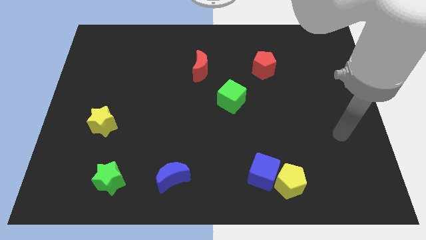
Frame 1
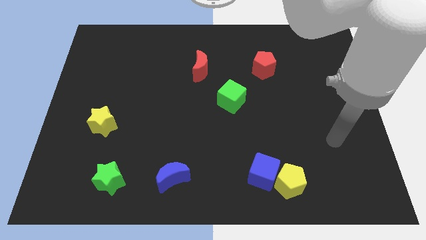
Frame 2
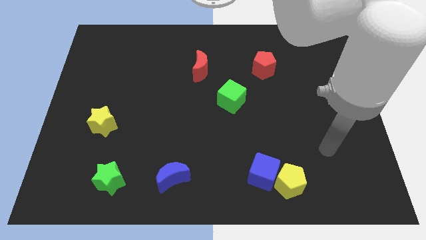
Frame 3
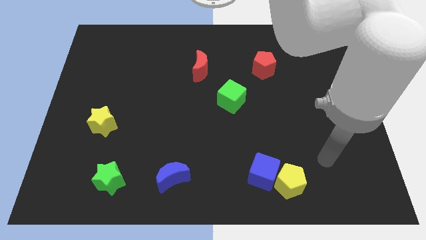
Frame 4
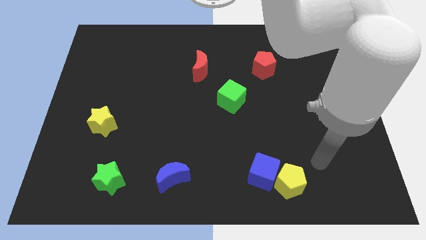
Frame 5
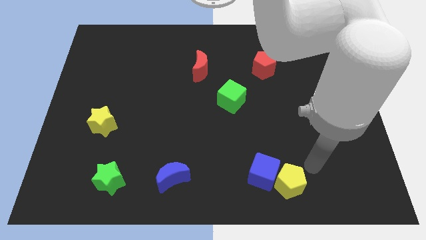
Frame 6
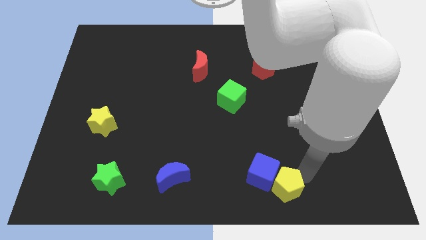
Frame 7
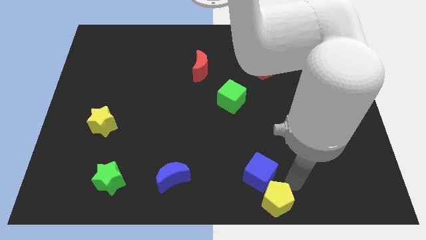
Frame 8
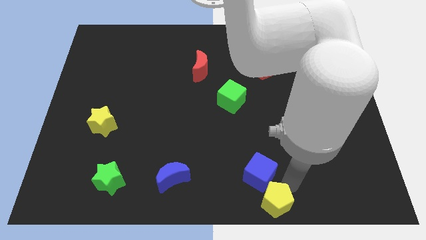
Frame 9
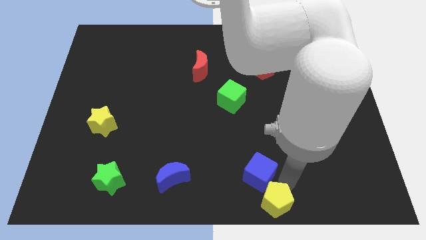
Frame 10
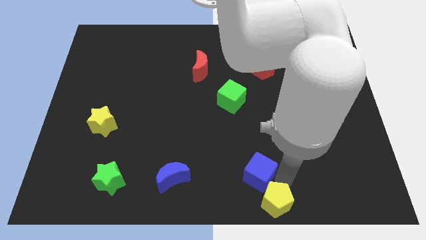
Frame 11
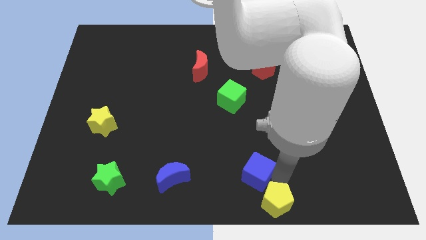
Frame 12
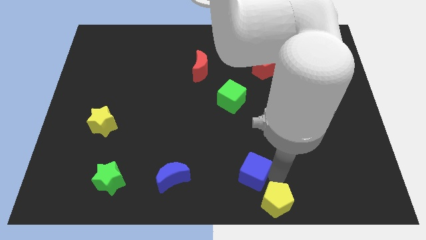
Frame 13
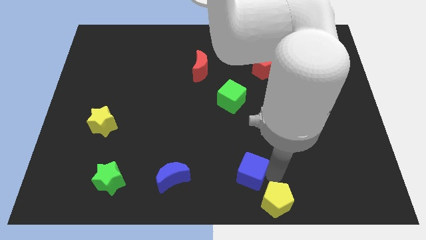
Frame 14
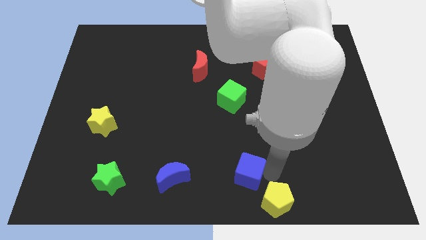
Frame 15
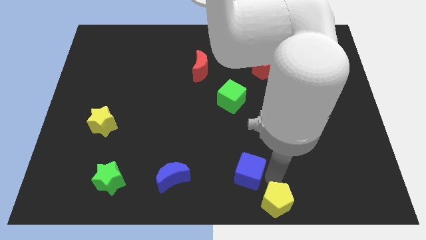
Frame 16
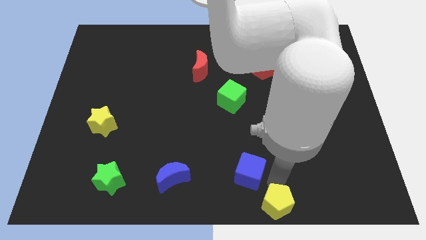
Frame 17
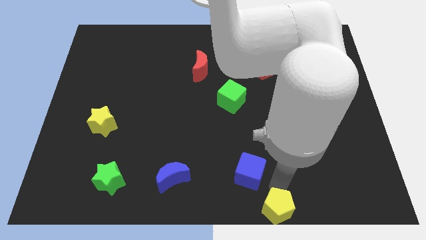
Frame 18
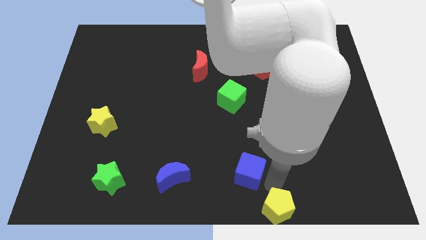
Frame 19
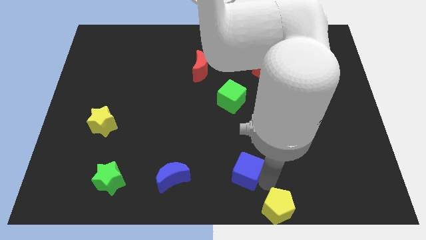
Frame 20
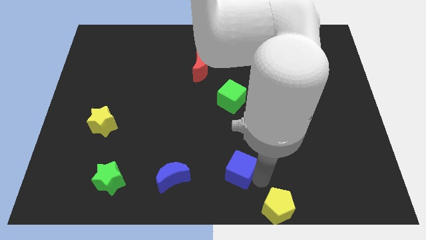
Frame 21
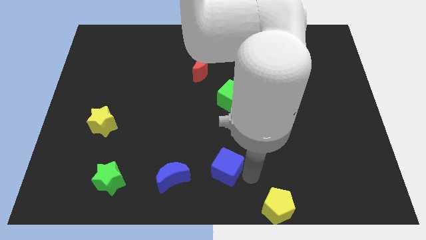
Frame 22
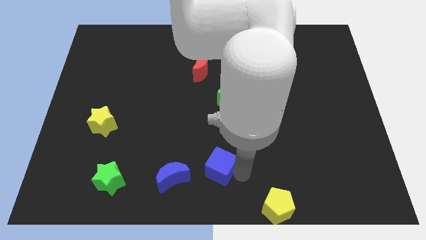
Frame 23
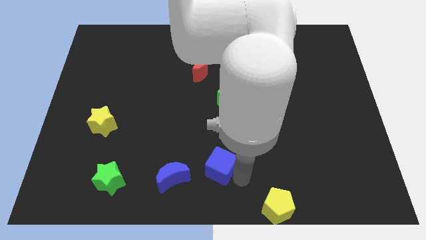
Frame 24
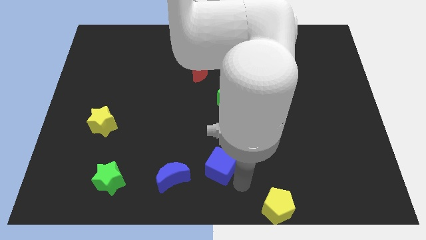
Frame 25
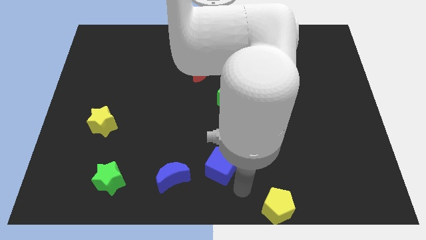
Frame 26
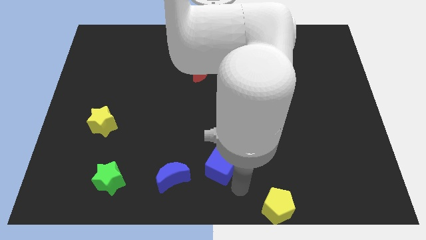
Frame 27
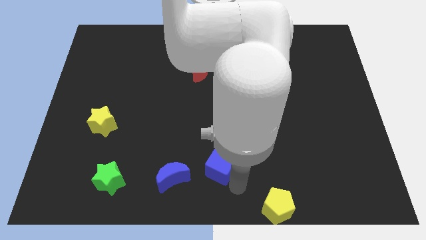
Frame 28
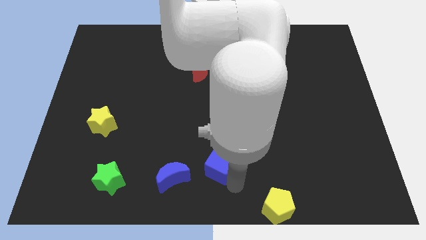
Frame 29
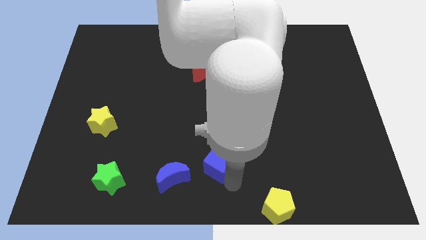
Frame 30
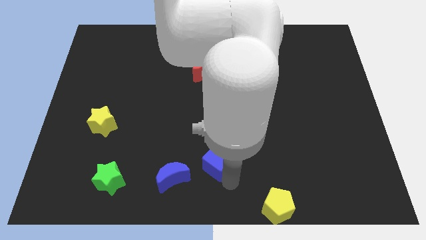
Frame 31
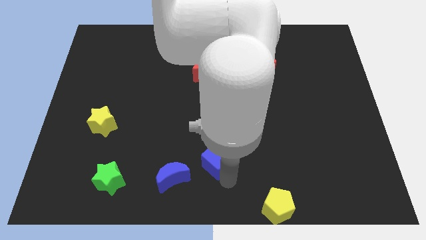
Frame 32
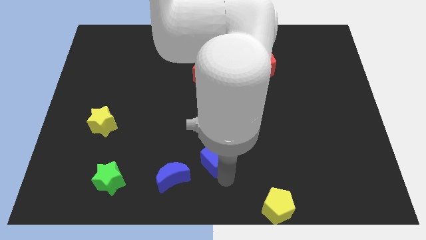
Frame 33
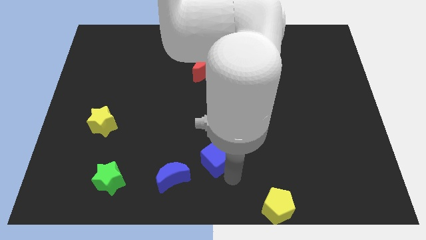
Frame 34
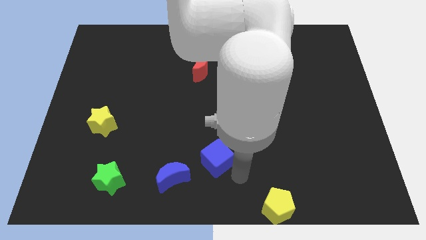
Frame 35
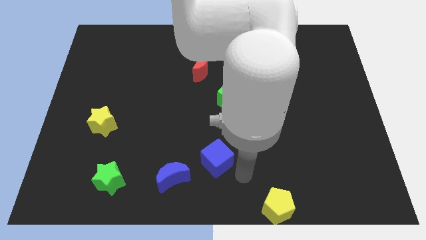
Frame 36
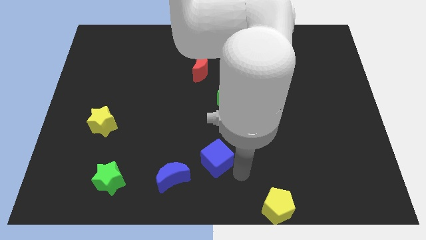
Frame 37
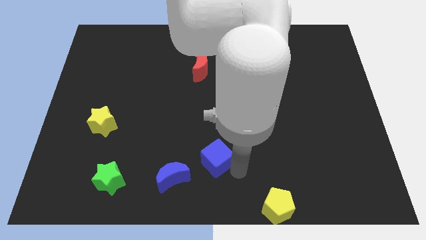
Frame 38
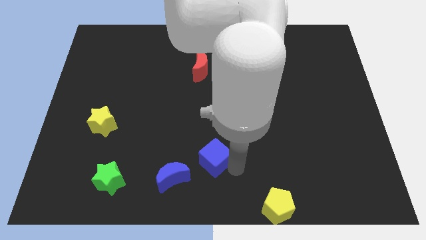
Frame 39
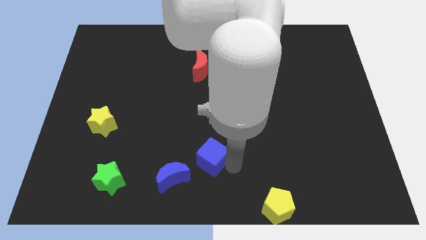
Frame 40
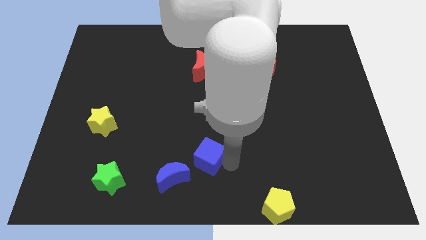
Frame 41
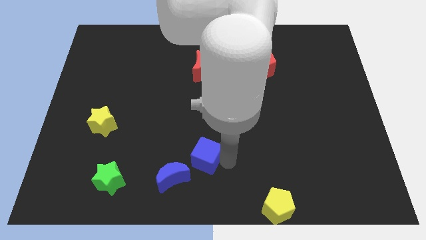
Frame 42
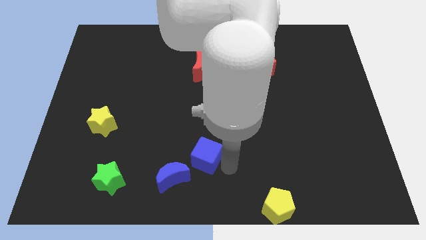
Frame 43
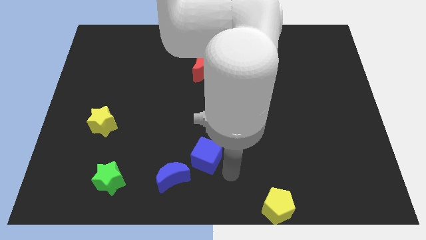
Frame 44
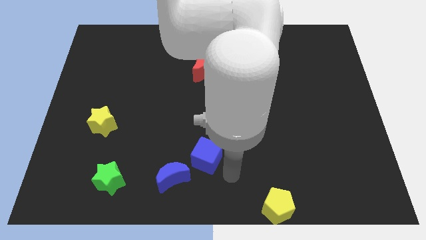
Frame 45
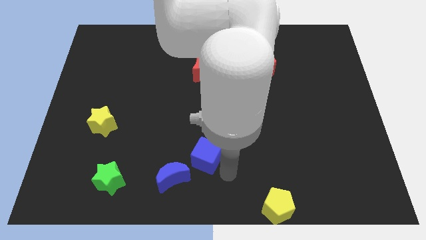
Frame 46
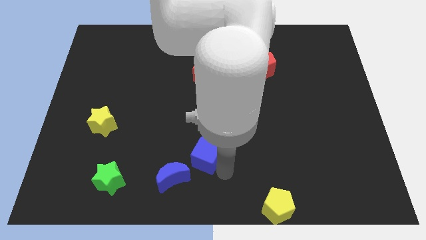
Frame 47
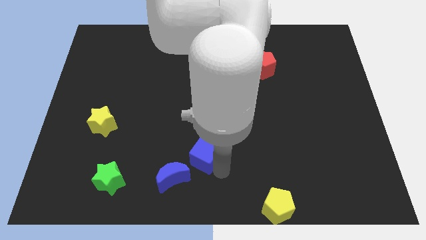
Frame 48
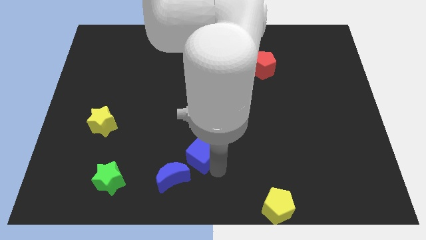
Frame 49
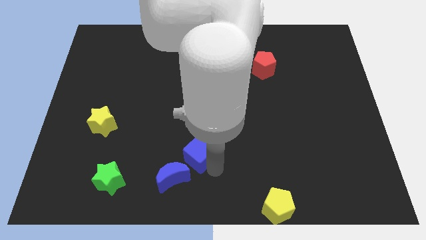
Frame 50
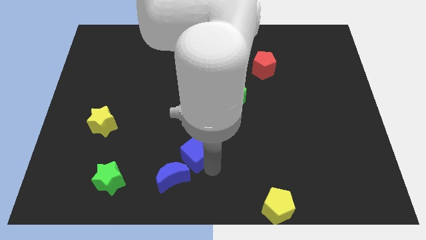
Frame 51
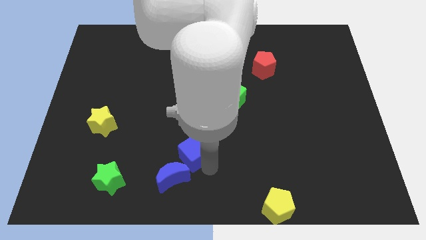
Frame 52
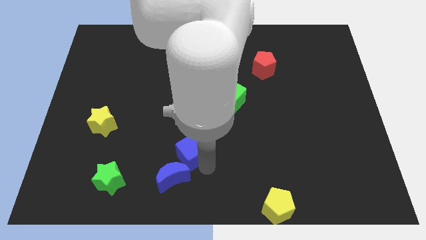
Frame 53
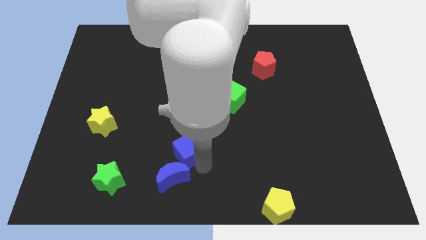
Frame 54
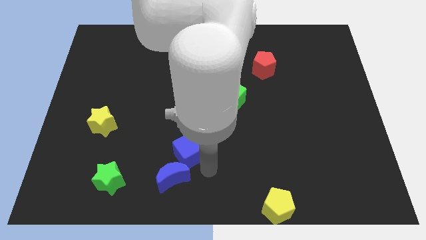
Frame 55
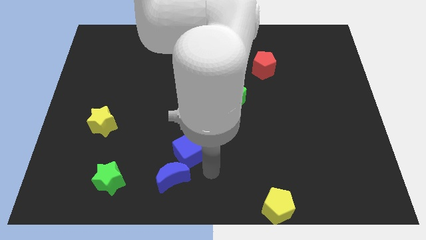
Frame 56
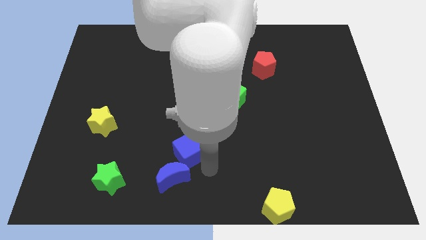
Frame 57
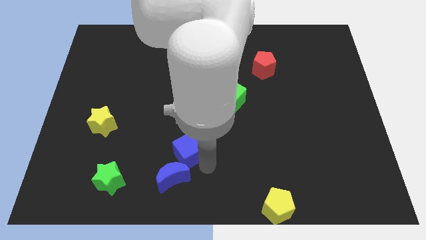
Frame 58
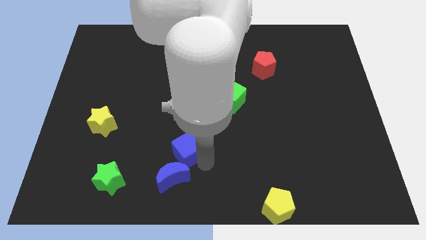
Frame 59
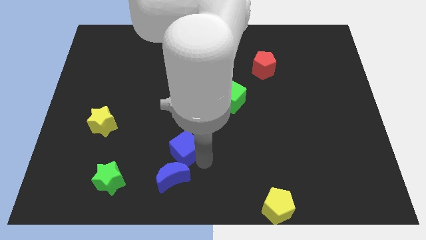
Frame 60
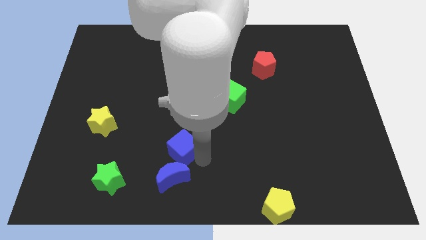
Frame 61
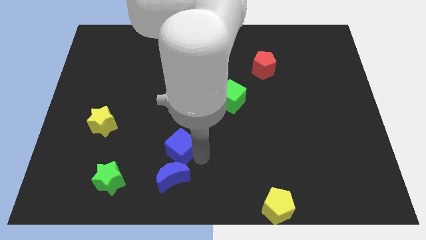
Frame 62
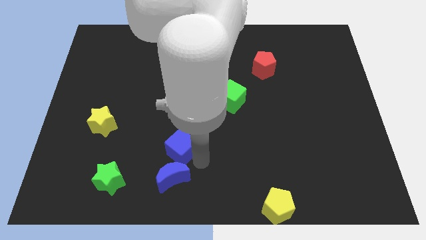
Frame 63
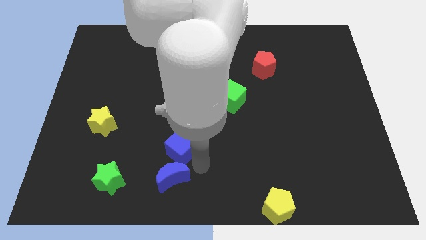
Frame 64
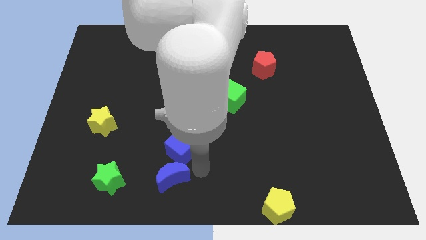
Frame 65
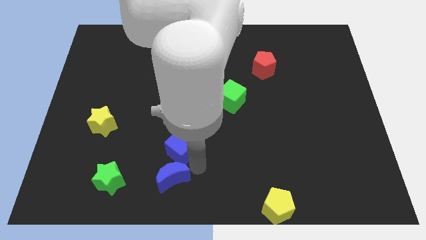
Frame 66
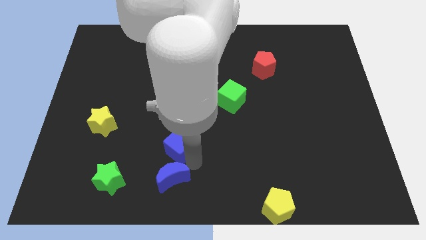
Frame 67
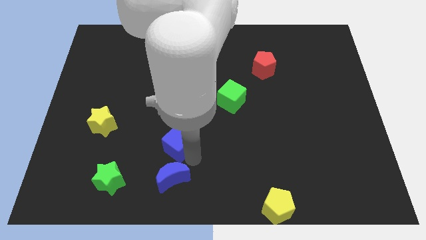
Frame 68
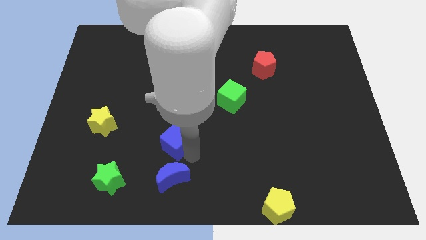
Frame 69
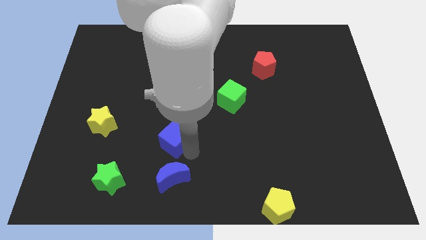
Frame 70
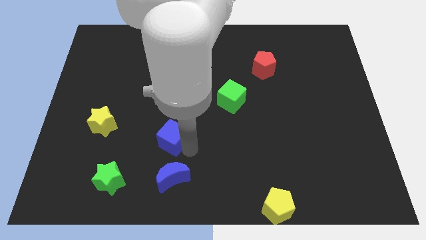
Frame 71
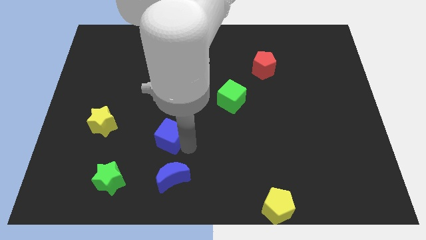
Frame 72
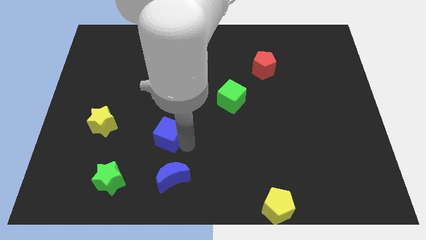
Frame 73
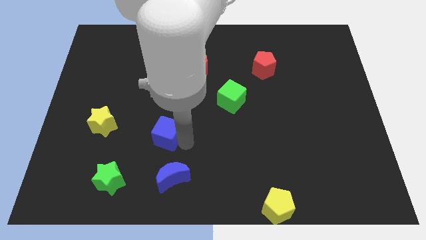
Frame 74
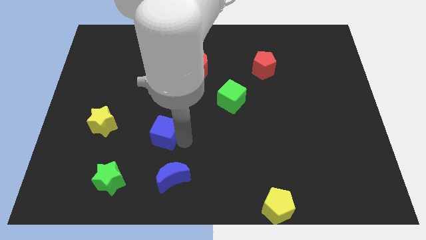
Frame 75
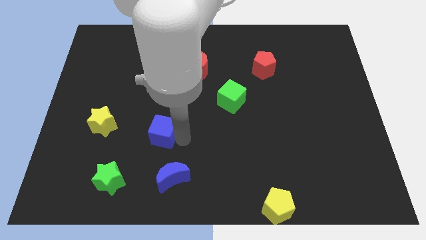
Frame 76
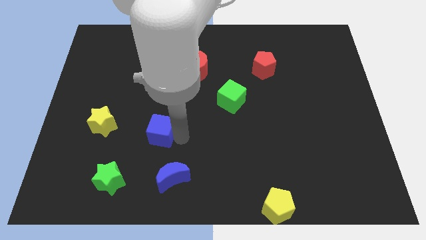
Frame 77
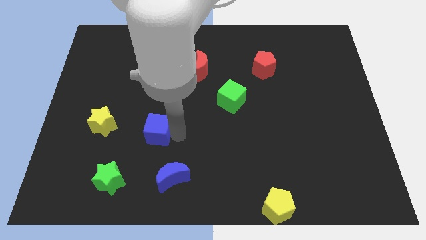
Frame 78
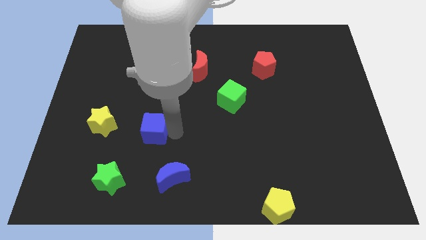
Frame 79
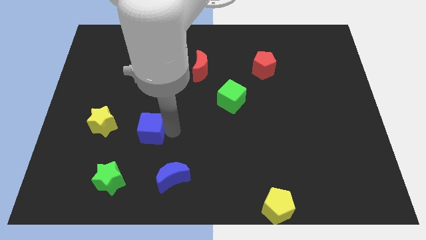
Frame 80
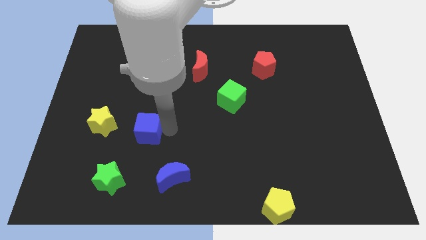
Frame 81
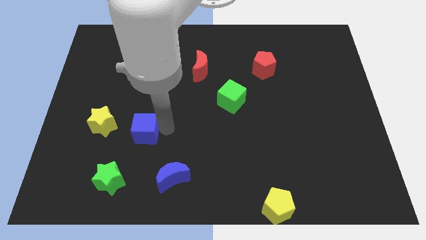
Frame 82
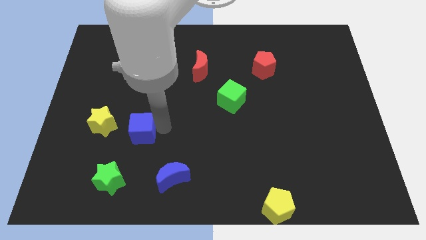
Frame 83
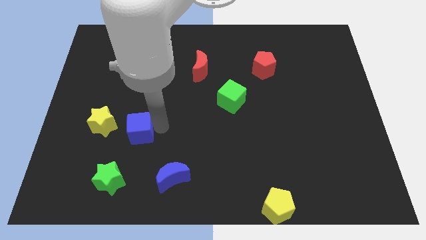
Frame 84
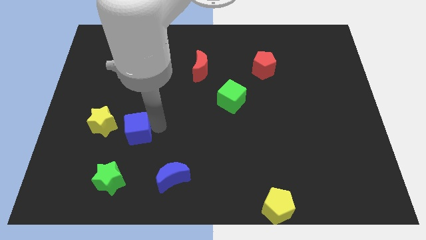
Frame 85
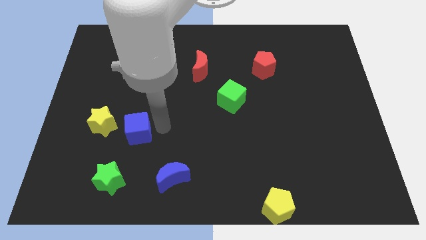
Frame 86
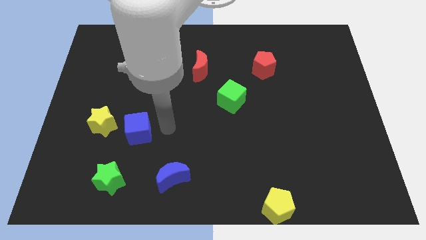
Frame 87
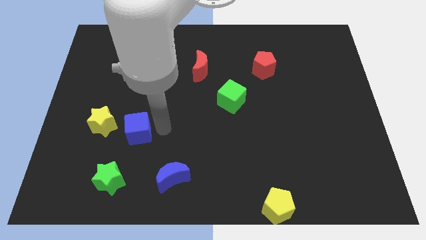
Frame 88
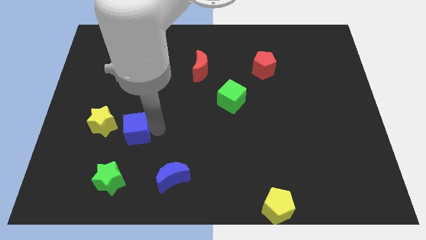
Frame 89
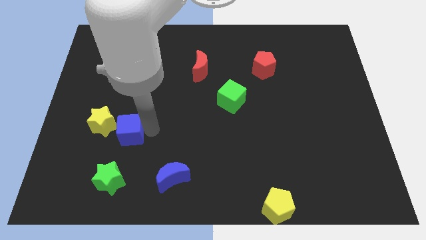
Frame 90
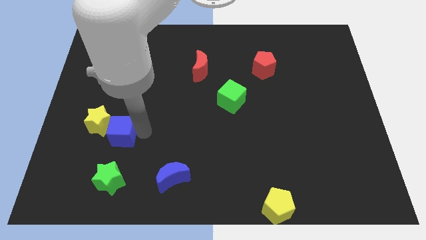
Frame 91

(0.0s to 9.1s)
move the blue cube next to the yellow star
